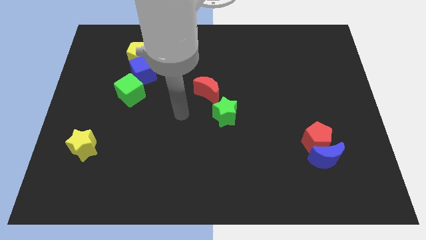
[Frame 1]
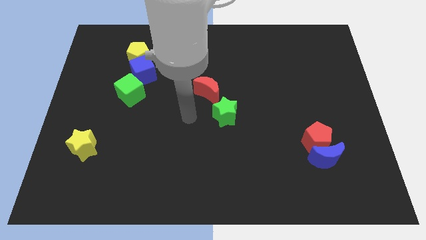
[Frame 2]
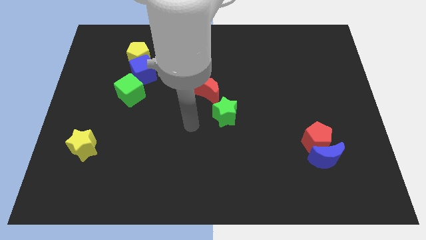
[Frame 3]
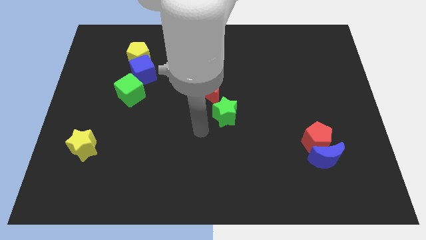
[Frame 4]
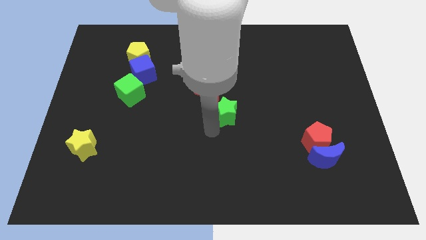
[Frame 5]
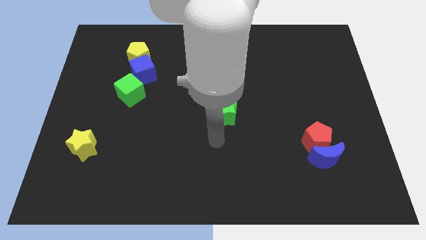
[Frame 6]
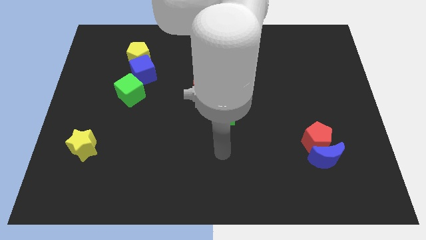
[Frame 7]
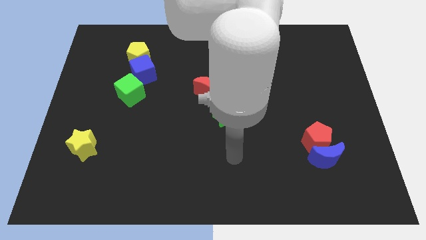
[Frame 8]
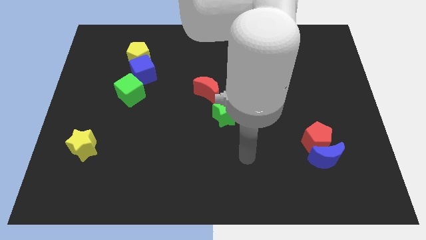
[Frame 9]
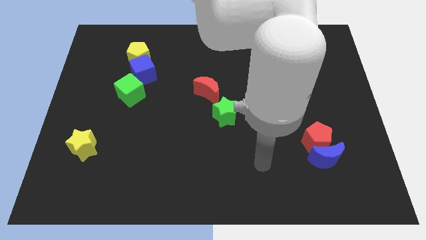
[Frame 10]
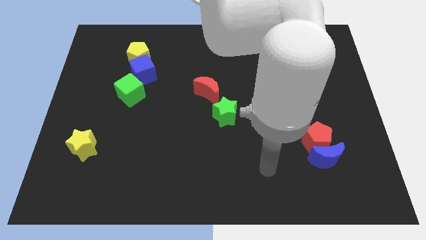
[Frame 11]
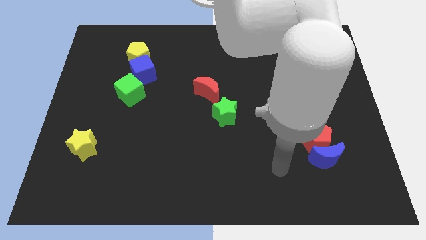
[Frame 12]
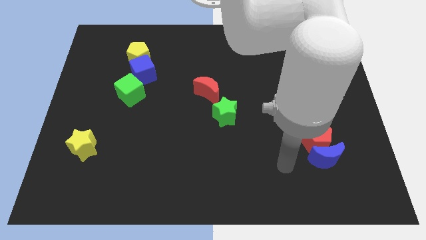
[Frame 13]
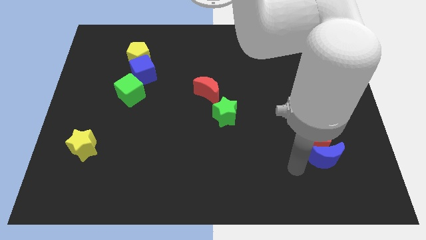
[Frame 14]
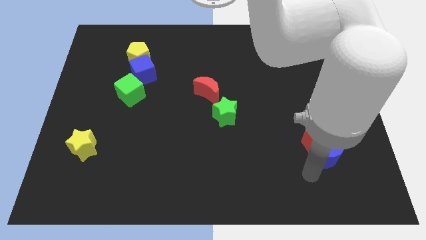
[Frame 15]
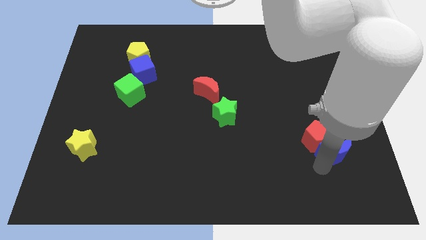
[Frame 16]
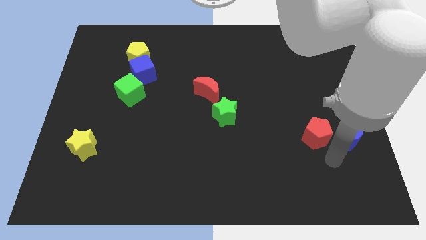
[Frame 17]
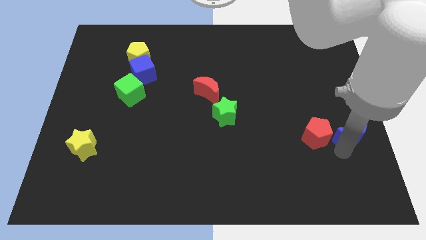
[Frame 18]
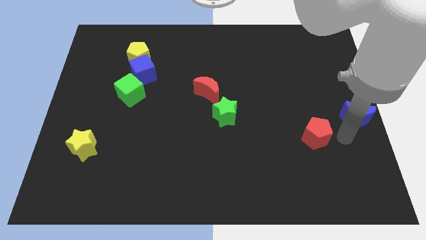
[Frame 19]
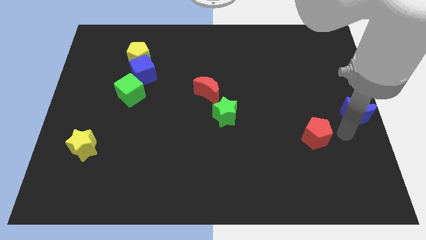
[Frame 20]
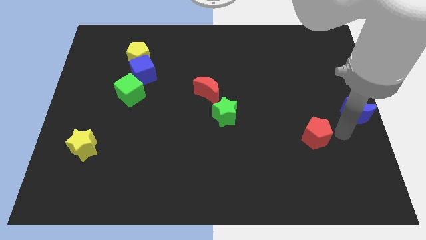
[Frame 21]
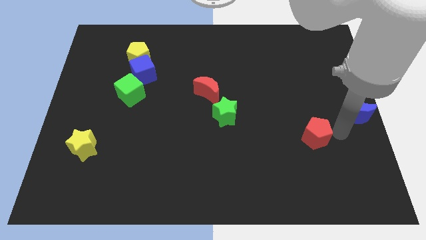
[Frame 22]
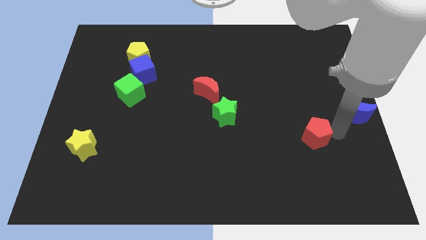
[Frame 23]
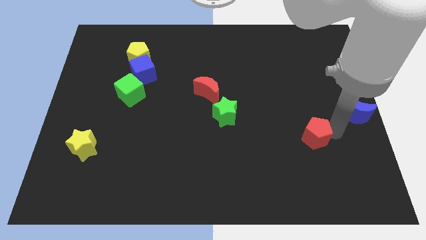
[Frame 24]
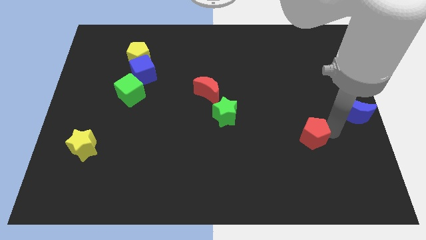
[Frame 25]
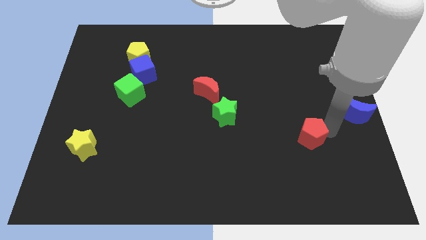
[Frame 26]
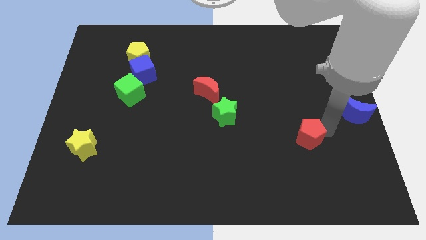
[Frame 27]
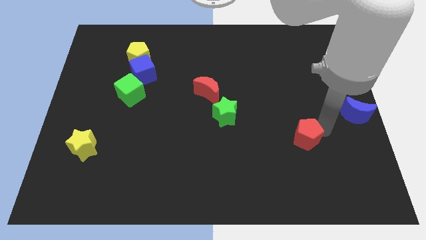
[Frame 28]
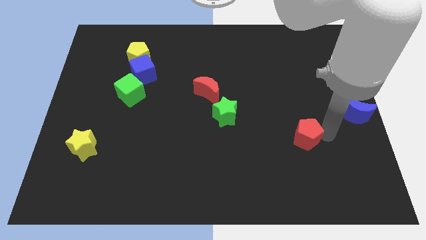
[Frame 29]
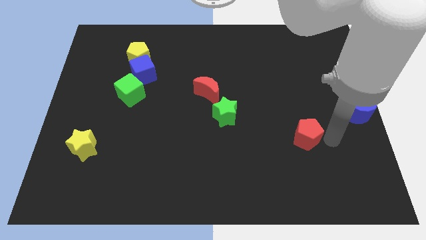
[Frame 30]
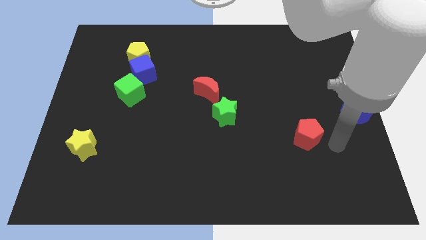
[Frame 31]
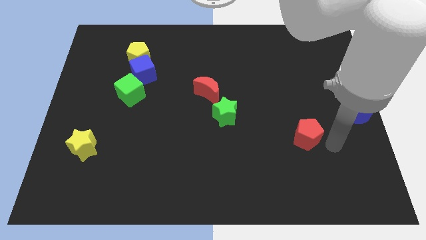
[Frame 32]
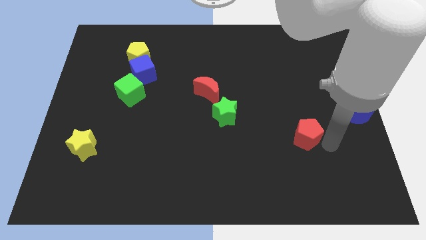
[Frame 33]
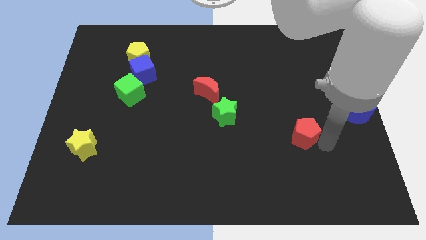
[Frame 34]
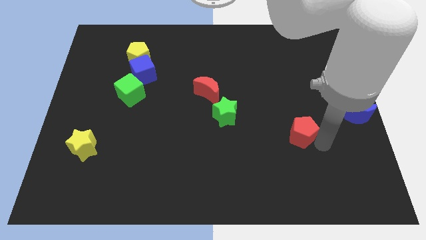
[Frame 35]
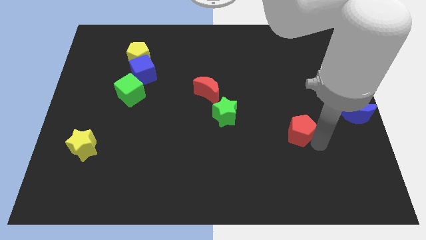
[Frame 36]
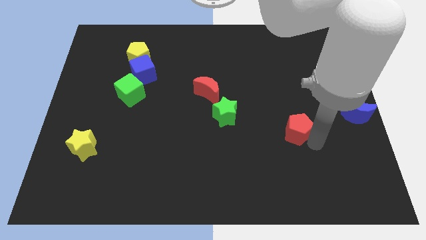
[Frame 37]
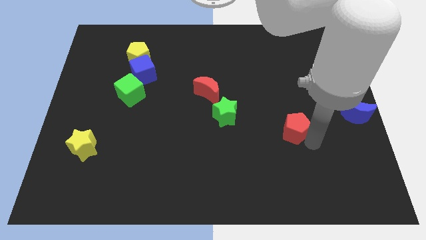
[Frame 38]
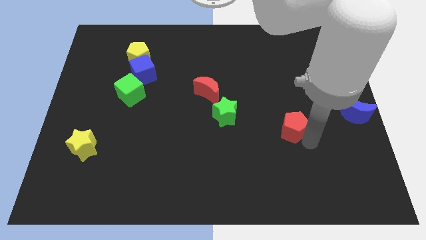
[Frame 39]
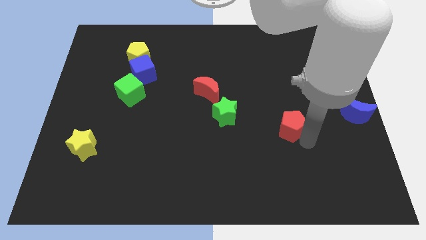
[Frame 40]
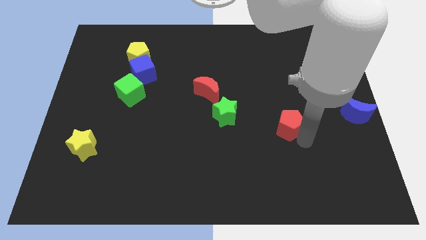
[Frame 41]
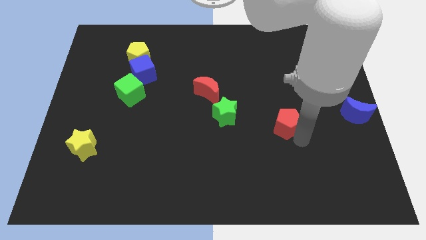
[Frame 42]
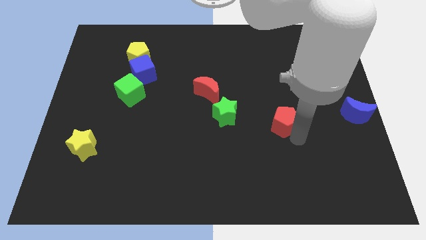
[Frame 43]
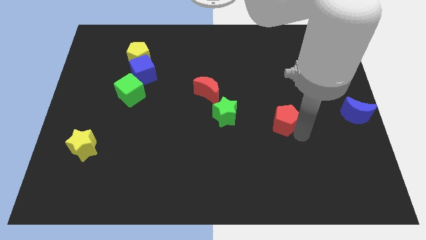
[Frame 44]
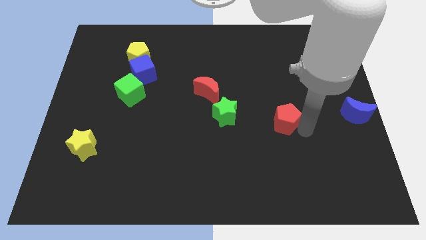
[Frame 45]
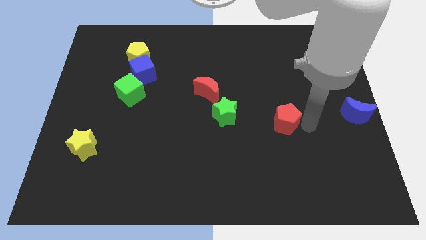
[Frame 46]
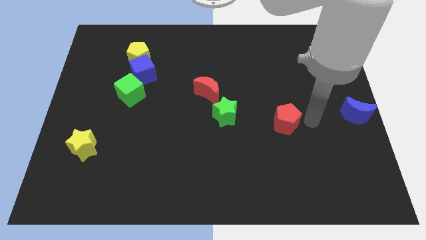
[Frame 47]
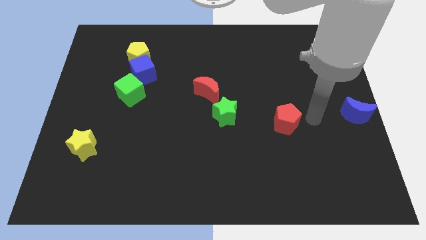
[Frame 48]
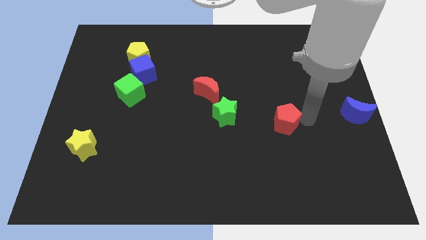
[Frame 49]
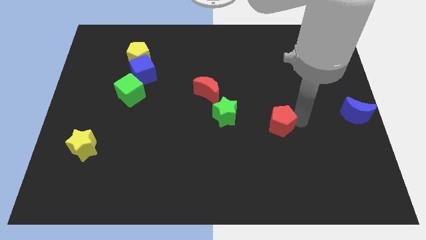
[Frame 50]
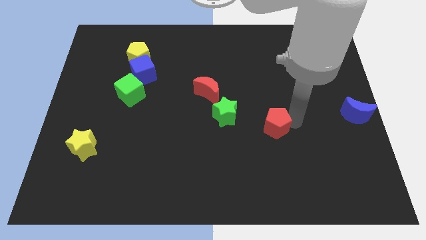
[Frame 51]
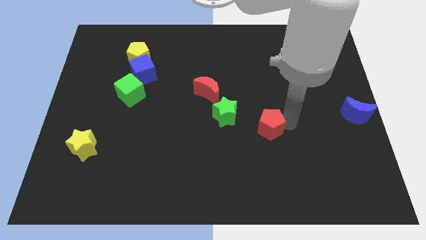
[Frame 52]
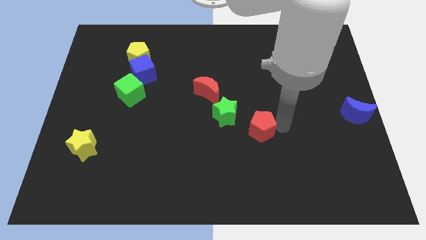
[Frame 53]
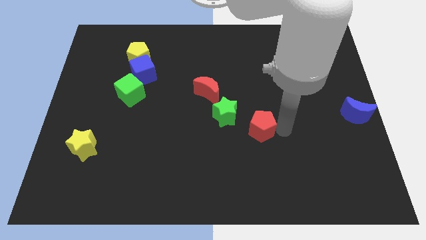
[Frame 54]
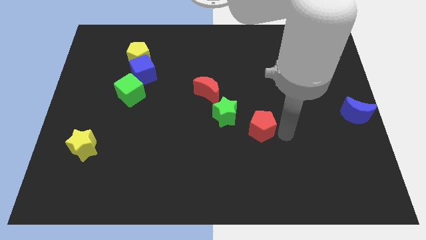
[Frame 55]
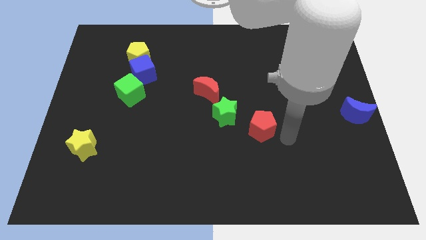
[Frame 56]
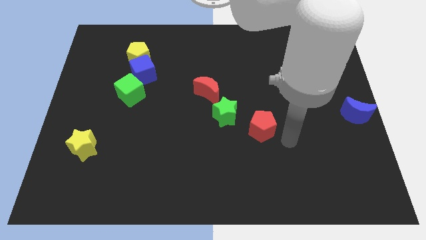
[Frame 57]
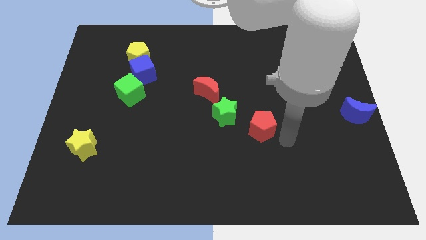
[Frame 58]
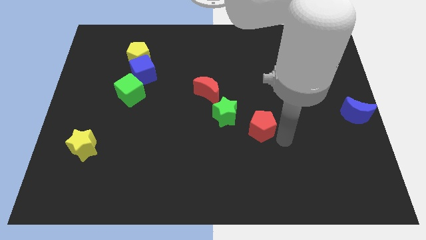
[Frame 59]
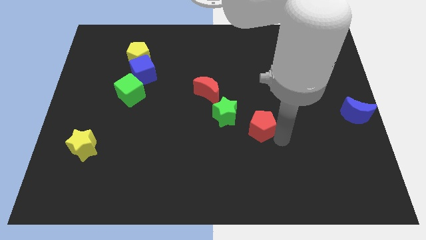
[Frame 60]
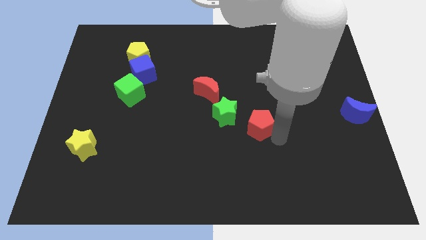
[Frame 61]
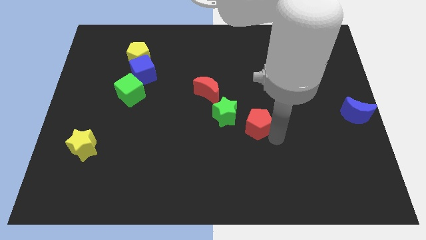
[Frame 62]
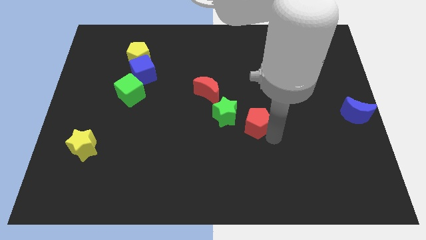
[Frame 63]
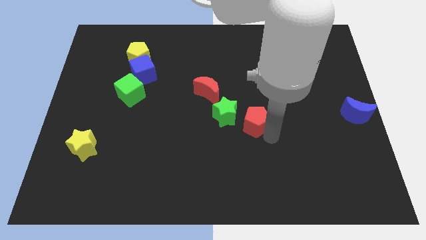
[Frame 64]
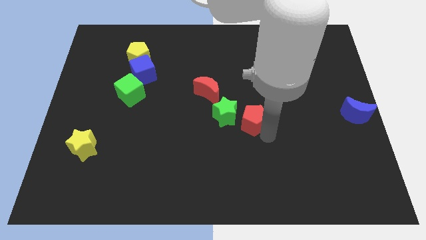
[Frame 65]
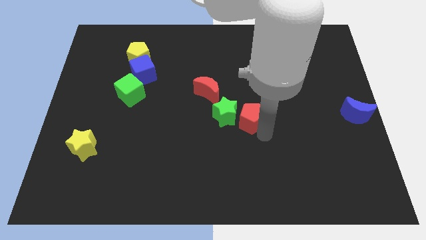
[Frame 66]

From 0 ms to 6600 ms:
move the red pentagon to the green star

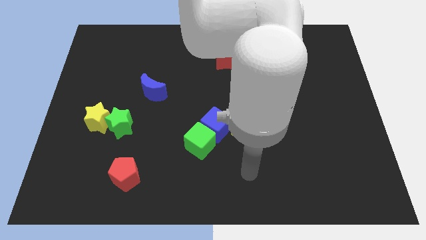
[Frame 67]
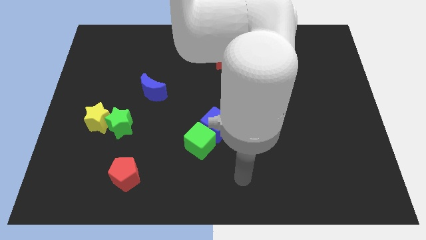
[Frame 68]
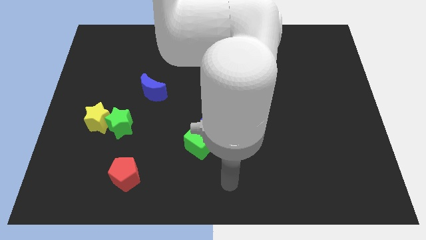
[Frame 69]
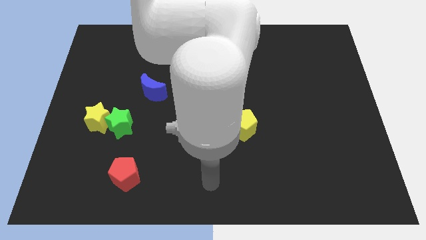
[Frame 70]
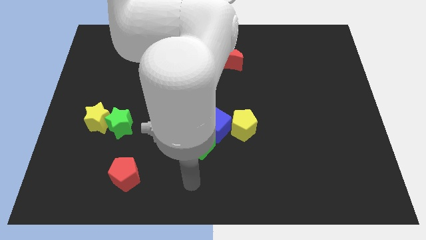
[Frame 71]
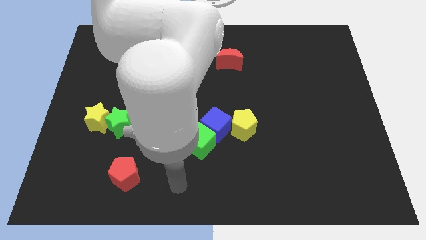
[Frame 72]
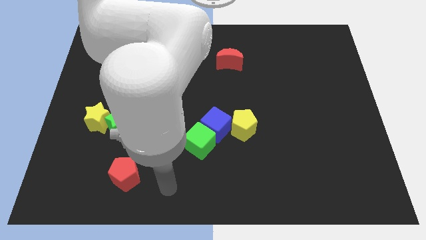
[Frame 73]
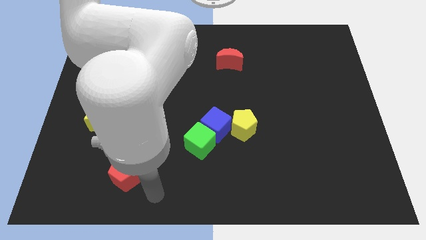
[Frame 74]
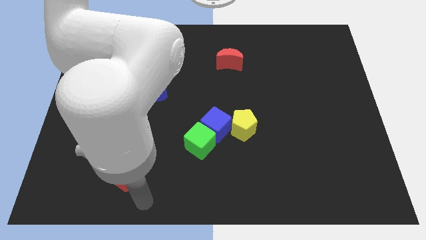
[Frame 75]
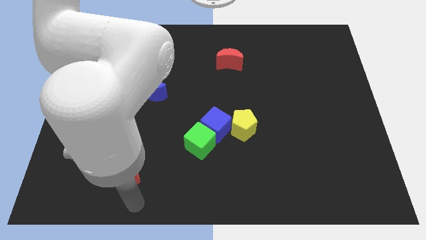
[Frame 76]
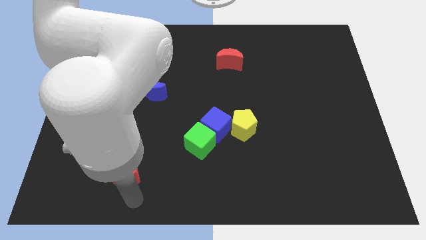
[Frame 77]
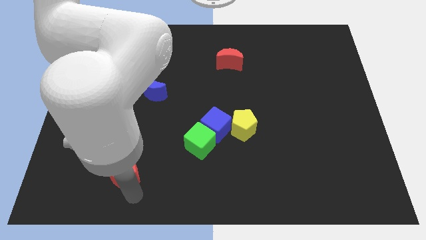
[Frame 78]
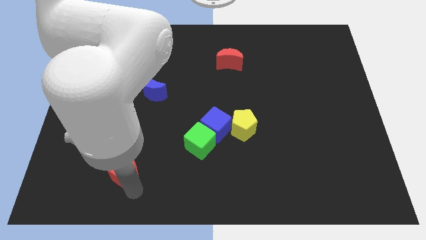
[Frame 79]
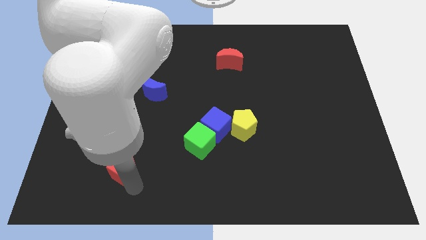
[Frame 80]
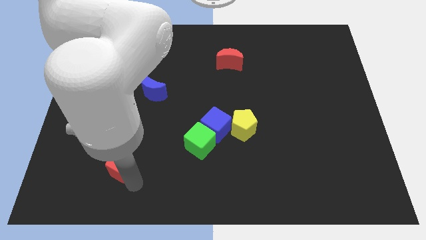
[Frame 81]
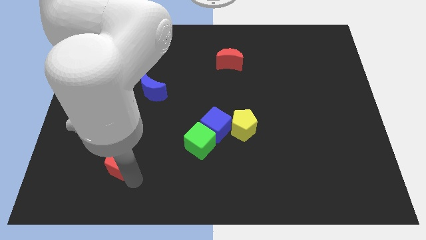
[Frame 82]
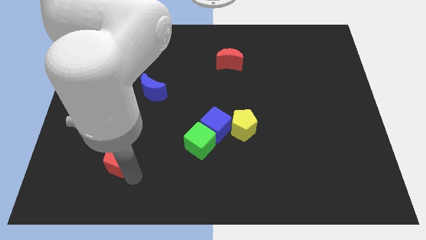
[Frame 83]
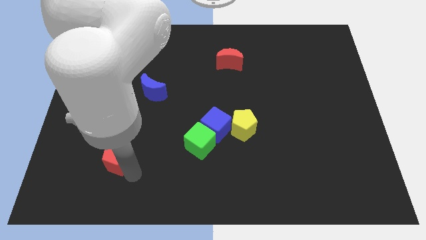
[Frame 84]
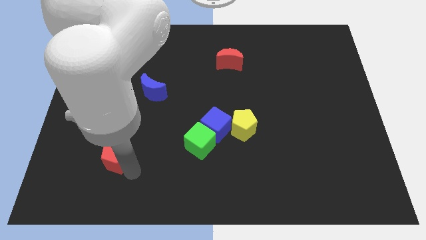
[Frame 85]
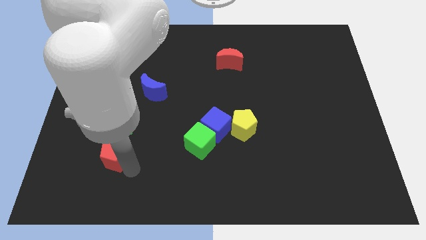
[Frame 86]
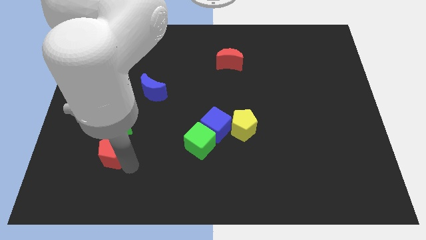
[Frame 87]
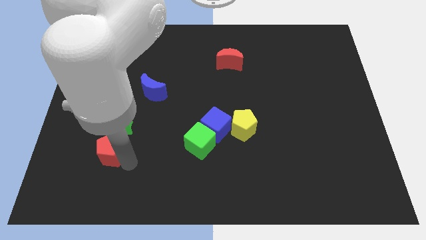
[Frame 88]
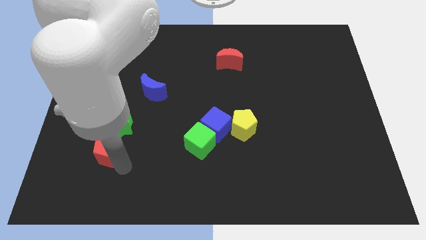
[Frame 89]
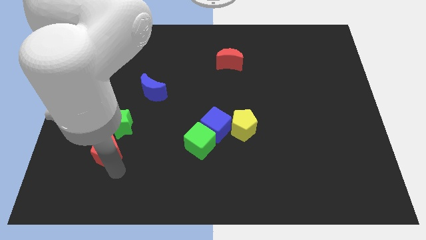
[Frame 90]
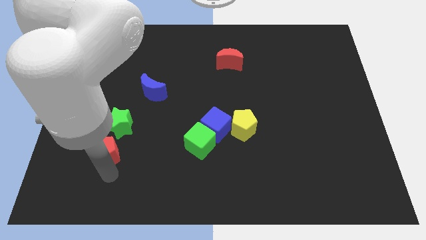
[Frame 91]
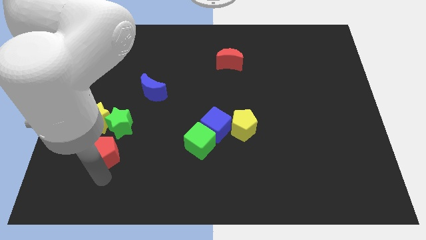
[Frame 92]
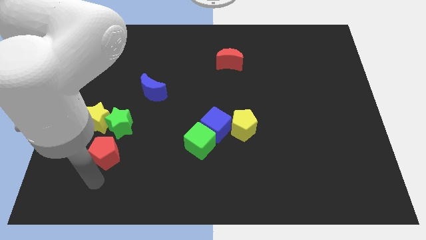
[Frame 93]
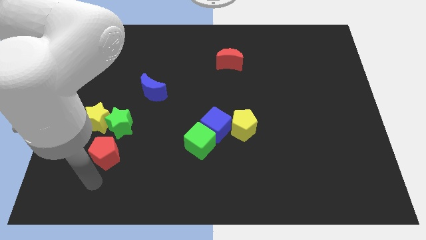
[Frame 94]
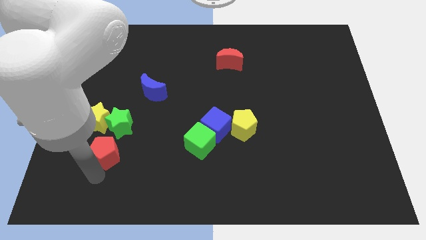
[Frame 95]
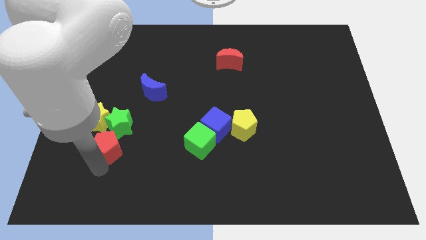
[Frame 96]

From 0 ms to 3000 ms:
push the red pentagon next to the green star
